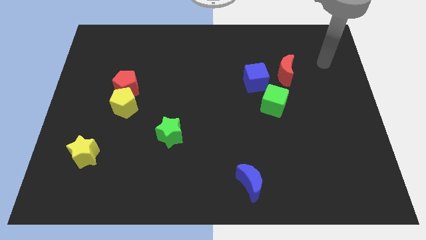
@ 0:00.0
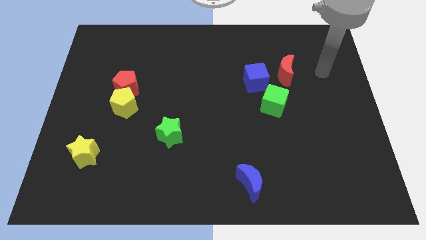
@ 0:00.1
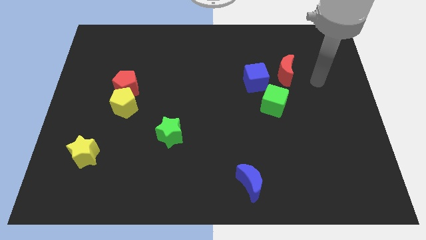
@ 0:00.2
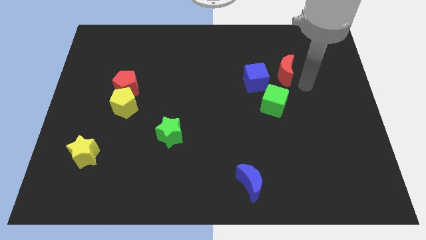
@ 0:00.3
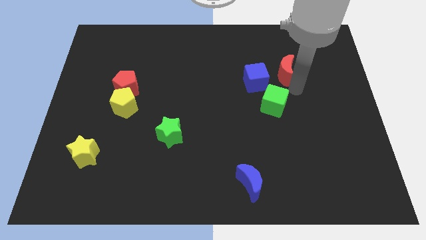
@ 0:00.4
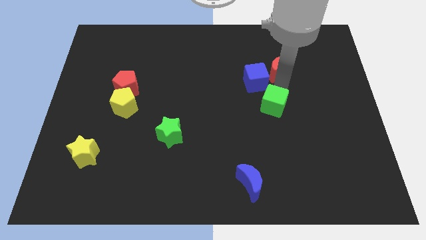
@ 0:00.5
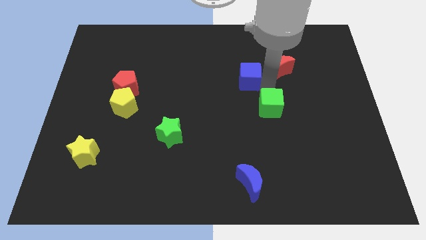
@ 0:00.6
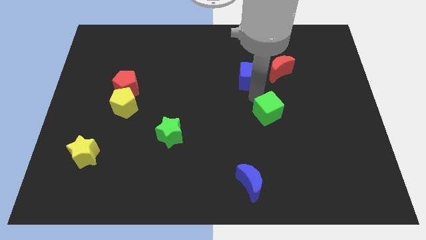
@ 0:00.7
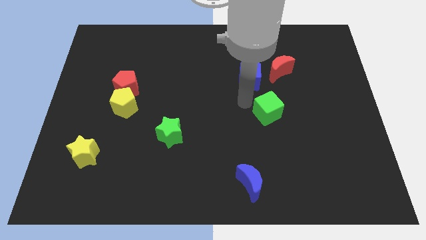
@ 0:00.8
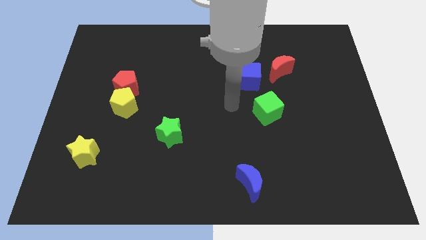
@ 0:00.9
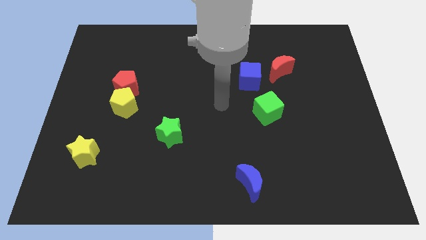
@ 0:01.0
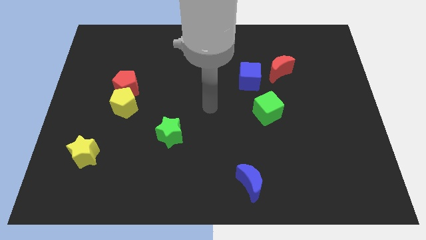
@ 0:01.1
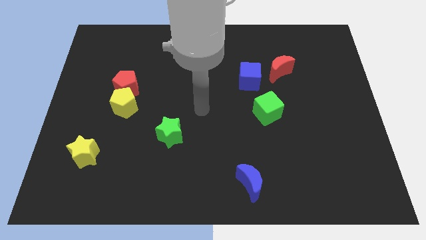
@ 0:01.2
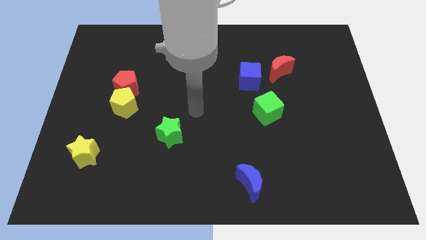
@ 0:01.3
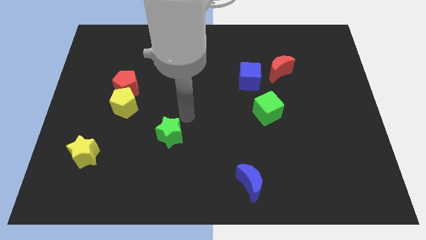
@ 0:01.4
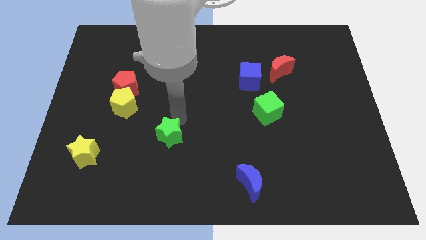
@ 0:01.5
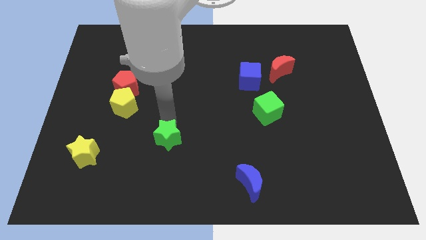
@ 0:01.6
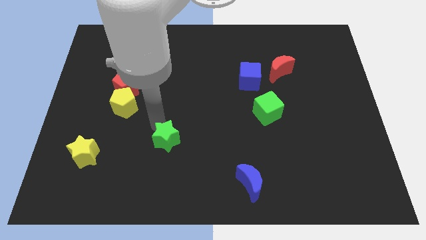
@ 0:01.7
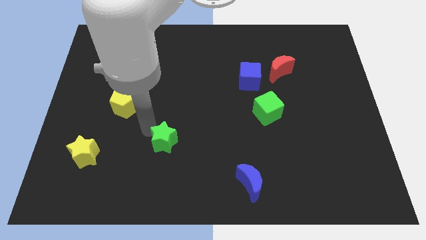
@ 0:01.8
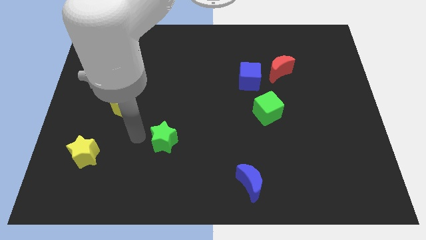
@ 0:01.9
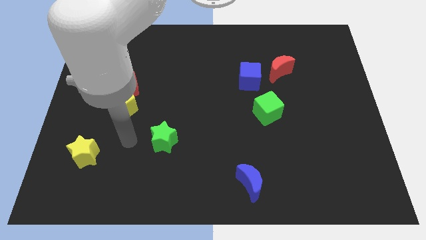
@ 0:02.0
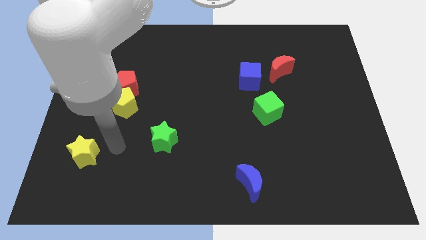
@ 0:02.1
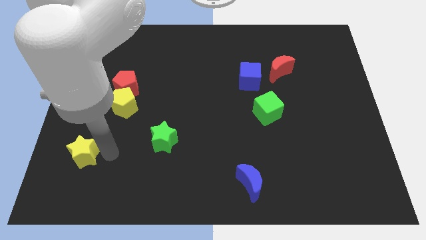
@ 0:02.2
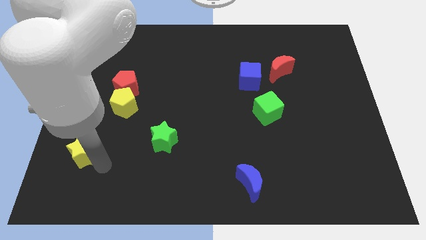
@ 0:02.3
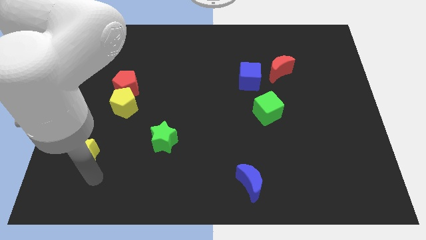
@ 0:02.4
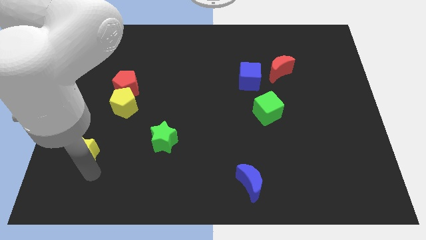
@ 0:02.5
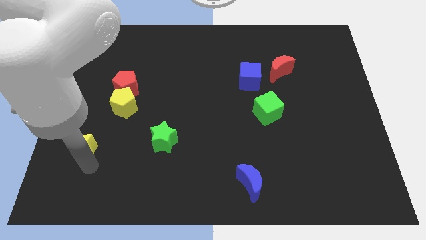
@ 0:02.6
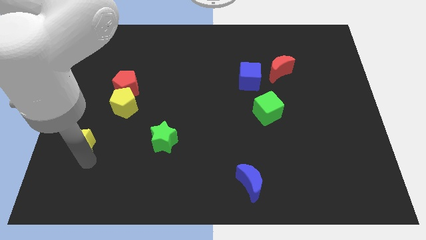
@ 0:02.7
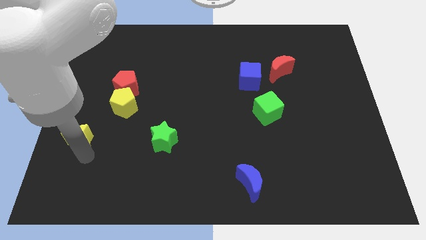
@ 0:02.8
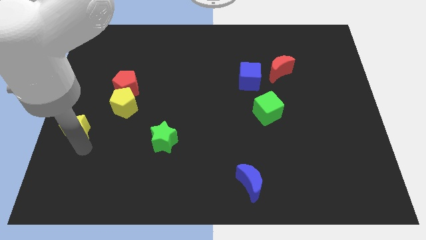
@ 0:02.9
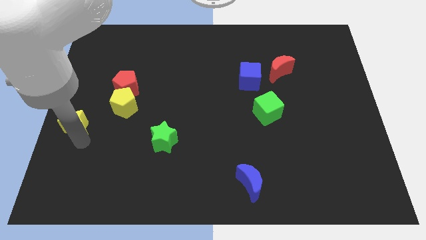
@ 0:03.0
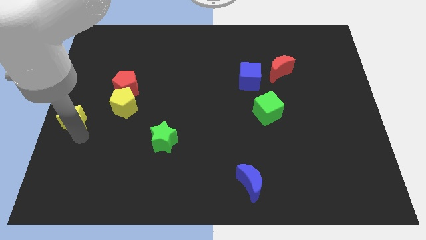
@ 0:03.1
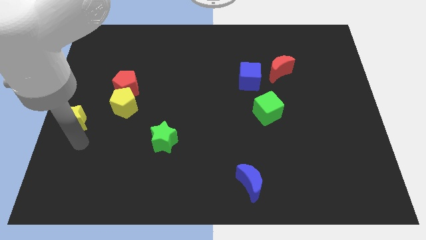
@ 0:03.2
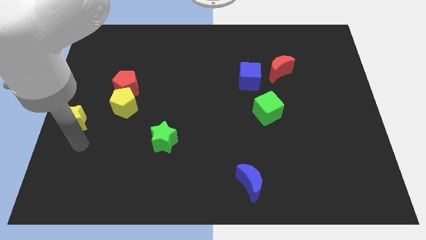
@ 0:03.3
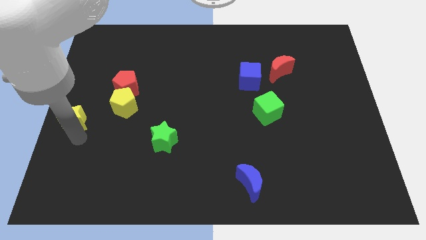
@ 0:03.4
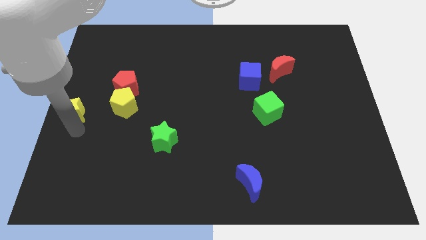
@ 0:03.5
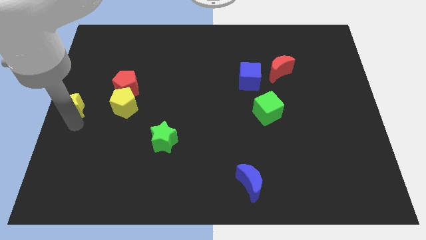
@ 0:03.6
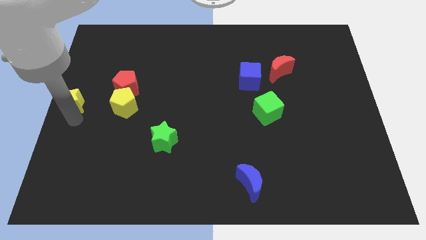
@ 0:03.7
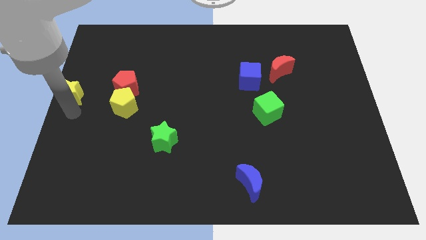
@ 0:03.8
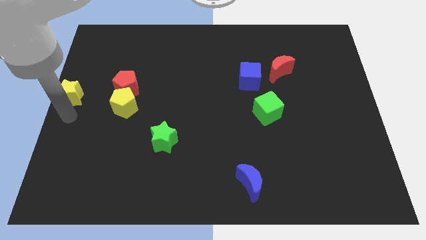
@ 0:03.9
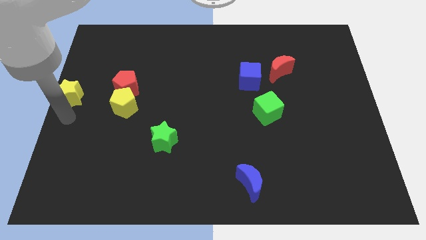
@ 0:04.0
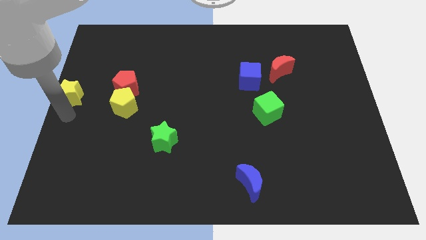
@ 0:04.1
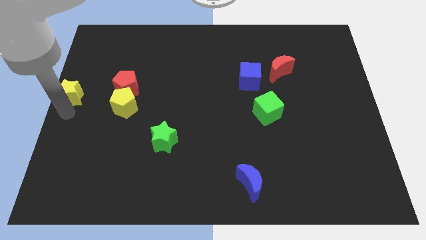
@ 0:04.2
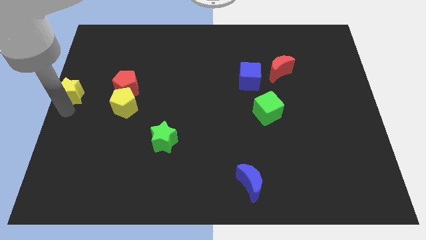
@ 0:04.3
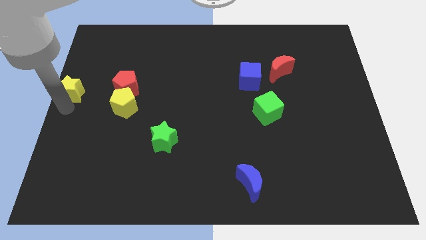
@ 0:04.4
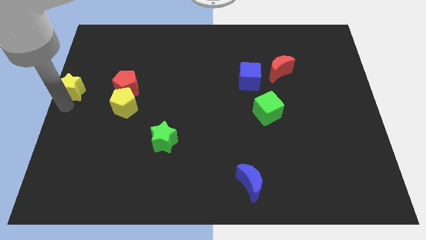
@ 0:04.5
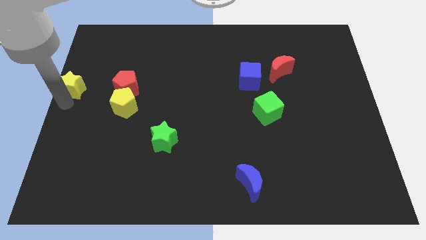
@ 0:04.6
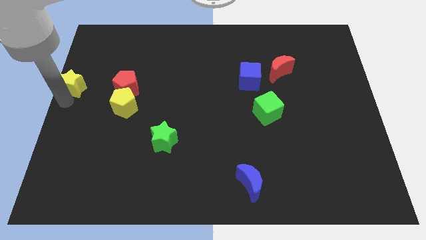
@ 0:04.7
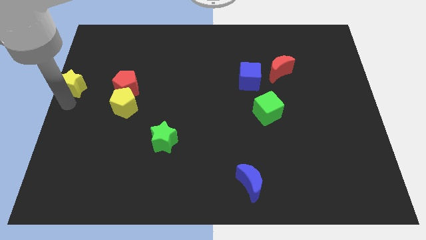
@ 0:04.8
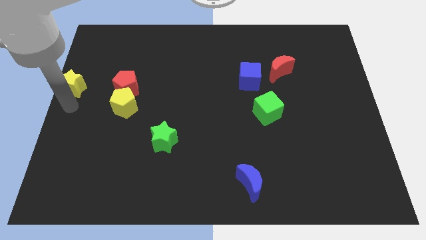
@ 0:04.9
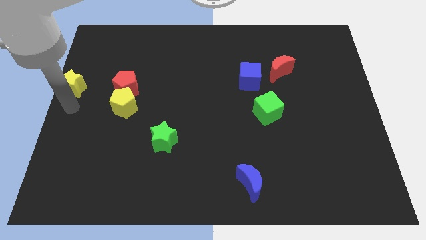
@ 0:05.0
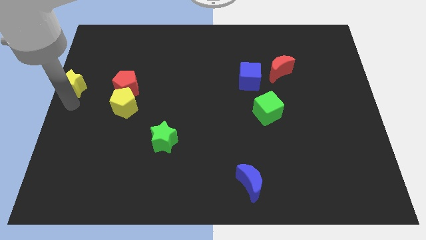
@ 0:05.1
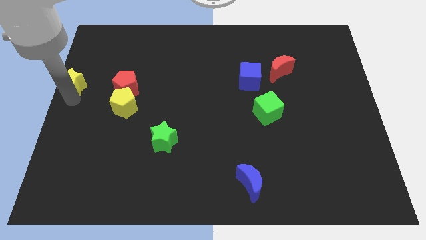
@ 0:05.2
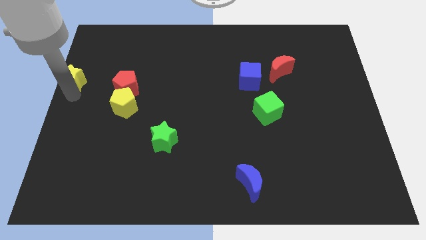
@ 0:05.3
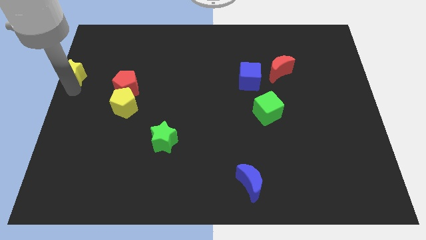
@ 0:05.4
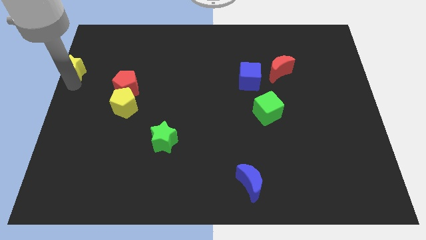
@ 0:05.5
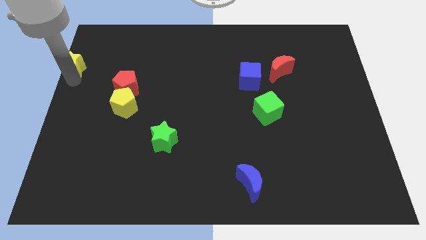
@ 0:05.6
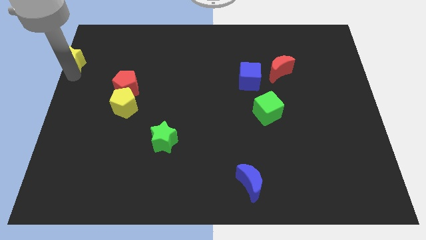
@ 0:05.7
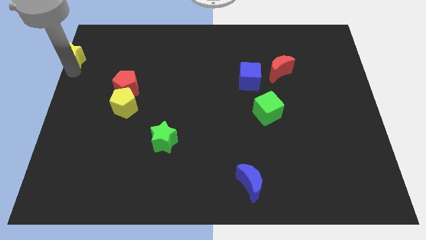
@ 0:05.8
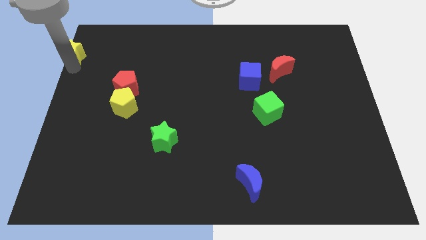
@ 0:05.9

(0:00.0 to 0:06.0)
push the yellow star to the top left corner

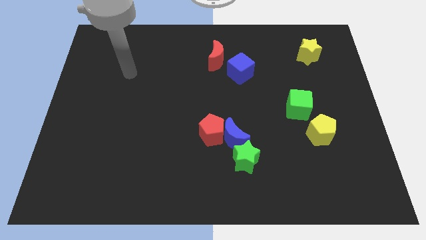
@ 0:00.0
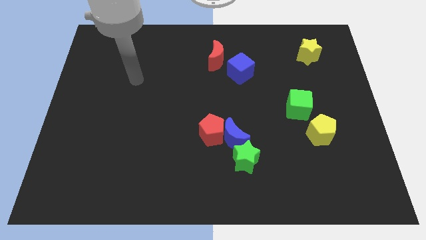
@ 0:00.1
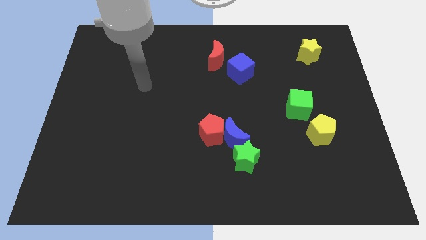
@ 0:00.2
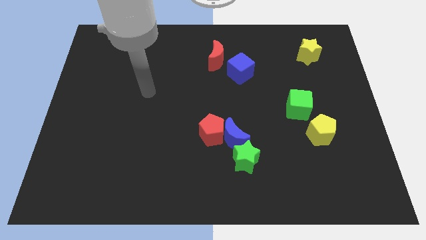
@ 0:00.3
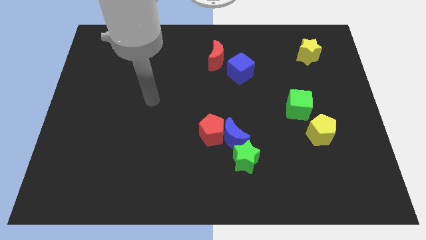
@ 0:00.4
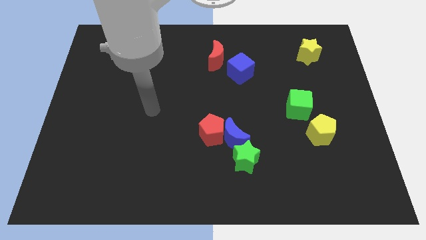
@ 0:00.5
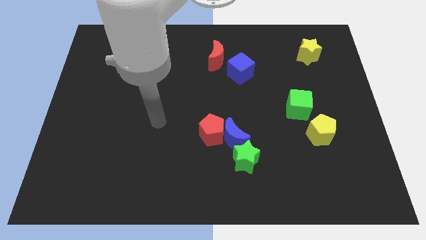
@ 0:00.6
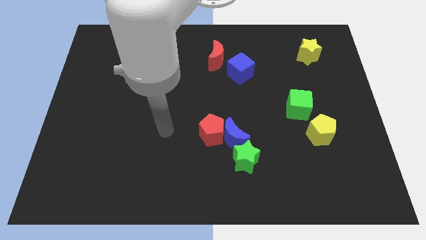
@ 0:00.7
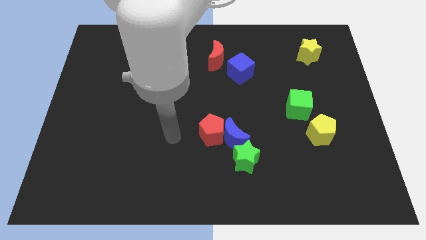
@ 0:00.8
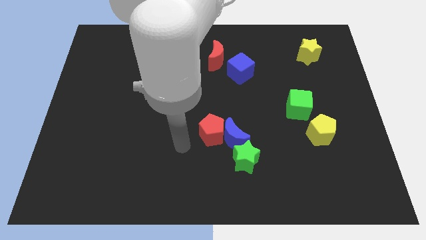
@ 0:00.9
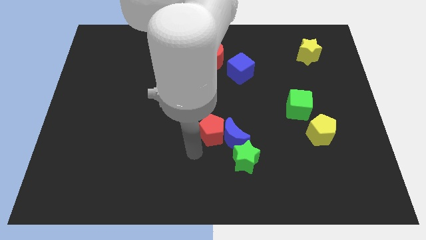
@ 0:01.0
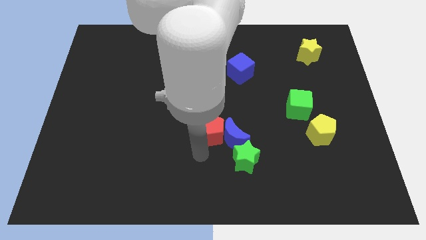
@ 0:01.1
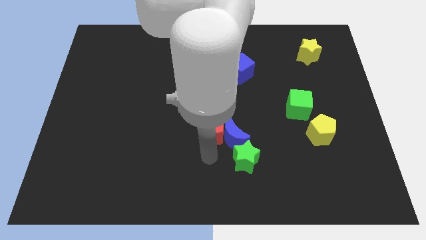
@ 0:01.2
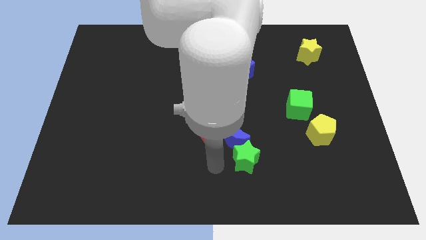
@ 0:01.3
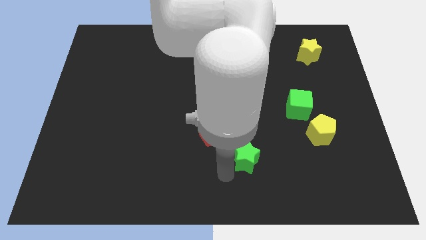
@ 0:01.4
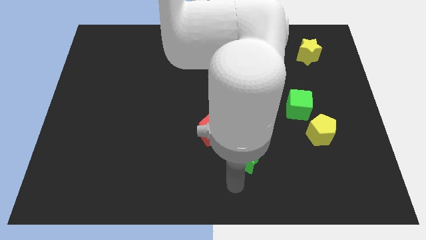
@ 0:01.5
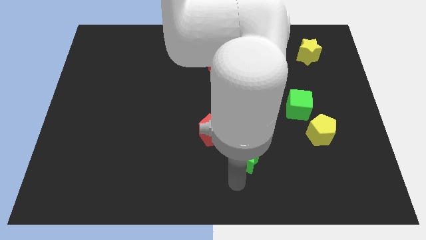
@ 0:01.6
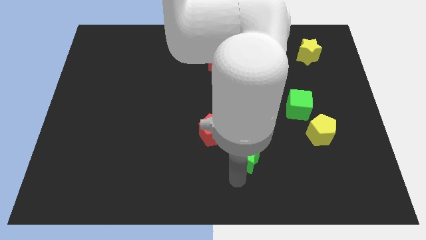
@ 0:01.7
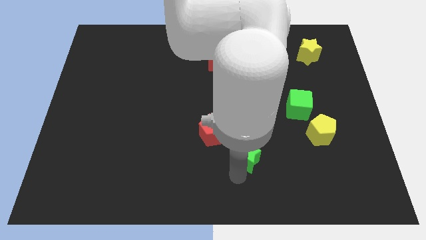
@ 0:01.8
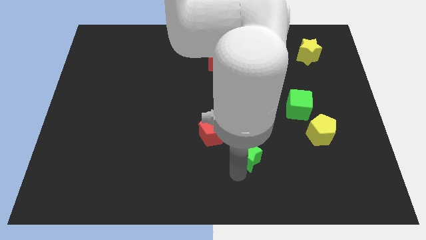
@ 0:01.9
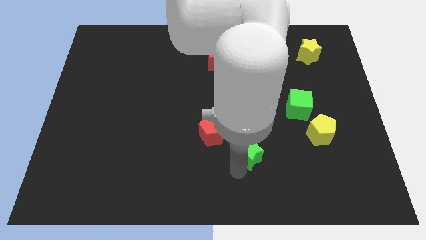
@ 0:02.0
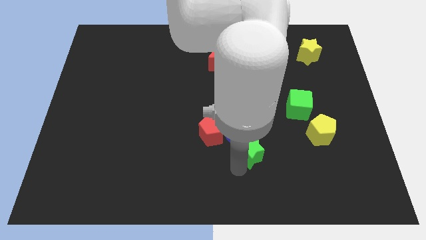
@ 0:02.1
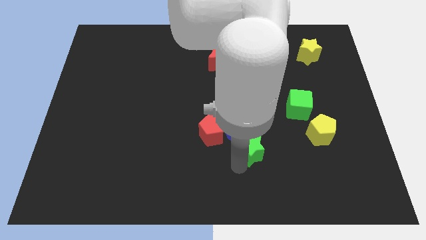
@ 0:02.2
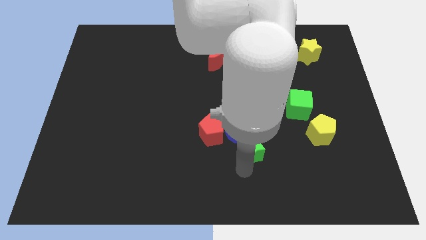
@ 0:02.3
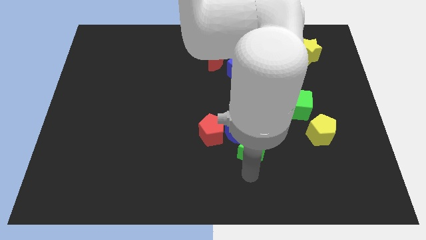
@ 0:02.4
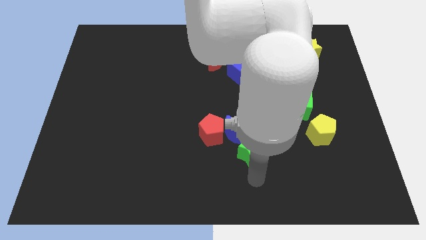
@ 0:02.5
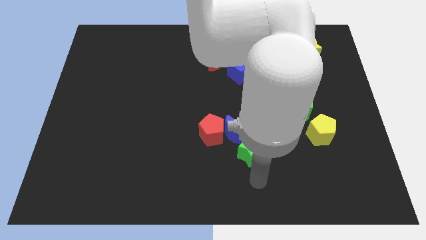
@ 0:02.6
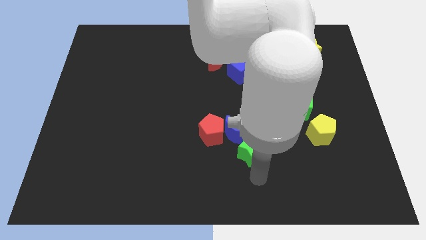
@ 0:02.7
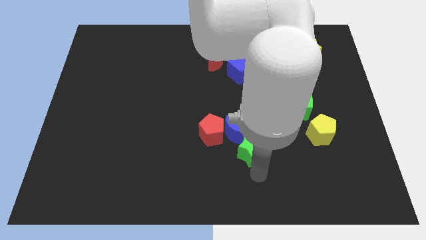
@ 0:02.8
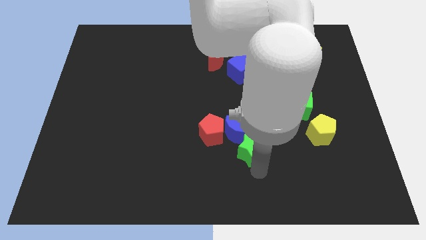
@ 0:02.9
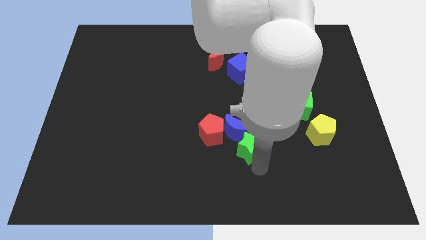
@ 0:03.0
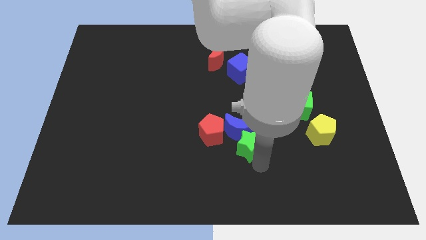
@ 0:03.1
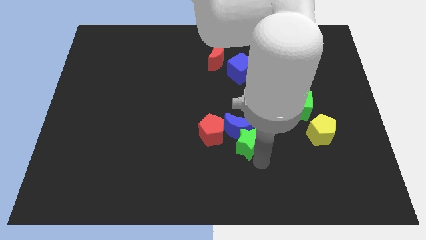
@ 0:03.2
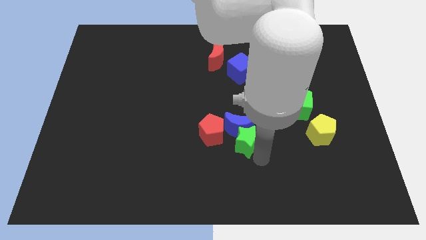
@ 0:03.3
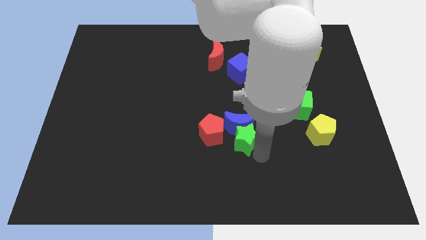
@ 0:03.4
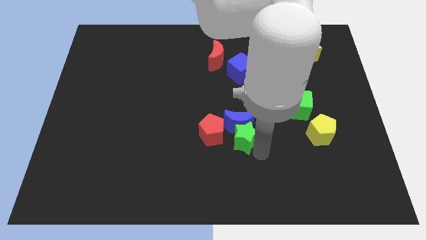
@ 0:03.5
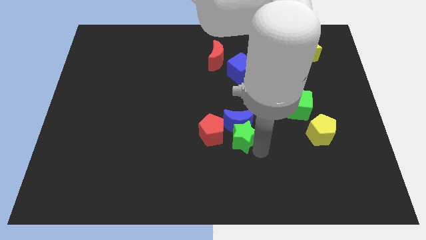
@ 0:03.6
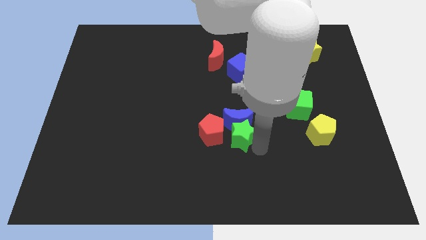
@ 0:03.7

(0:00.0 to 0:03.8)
move the green star to the center of the board
